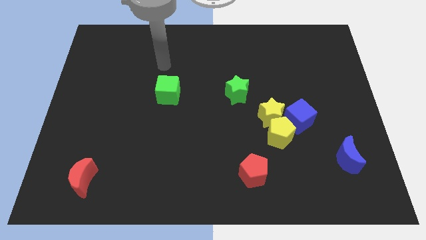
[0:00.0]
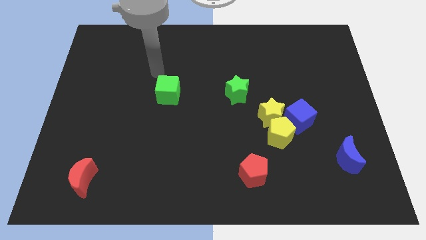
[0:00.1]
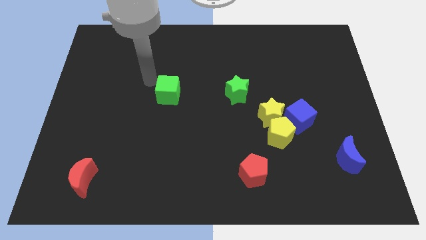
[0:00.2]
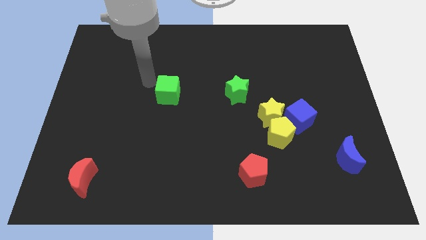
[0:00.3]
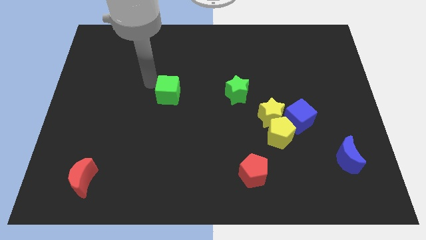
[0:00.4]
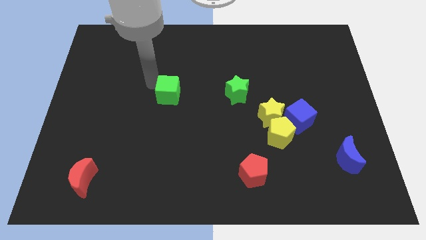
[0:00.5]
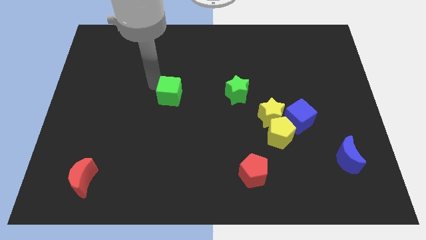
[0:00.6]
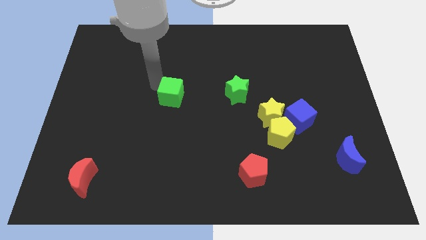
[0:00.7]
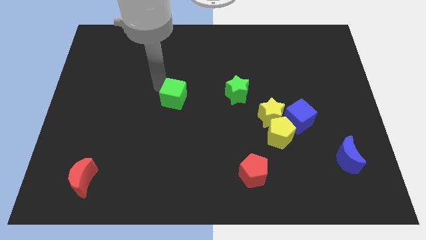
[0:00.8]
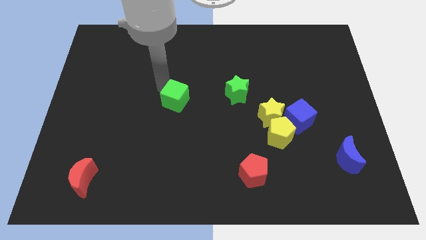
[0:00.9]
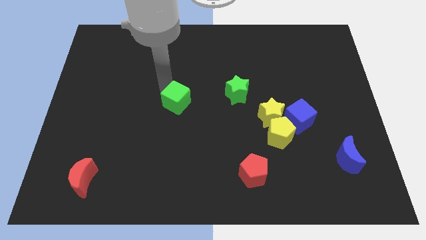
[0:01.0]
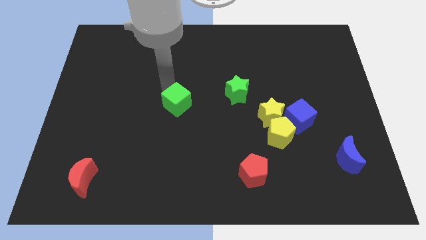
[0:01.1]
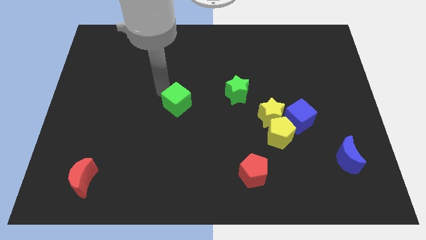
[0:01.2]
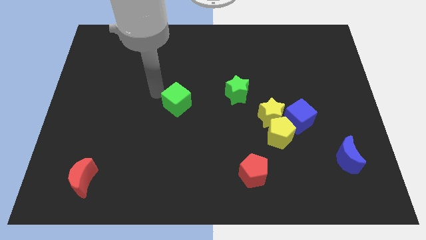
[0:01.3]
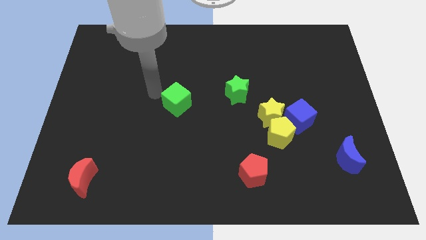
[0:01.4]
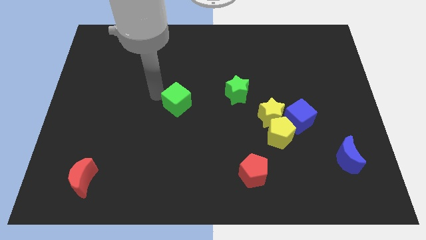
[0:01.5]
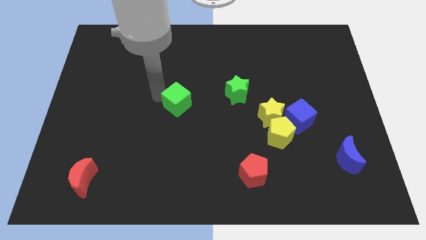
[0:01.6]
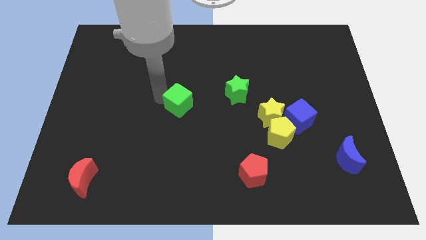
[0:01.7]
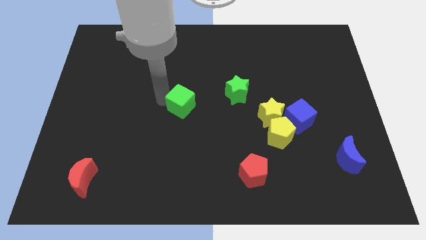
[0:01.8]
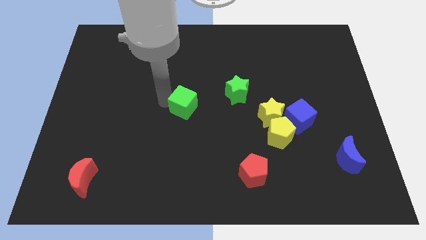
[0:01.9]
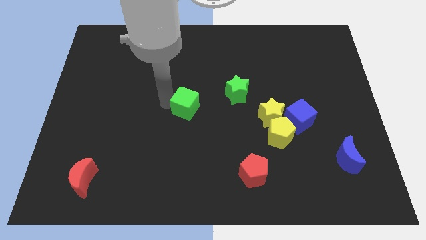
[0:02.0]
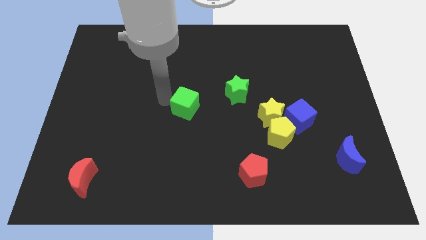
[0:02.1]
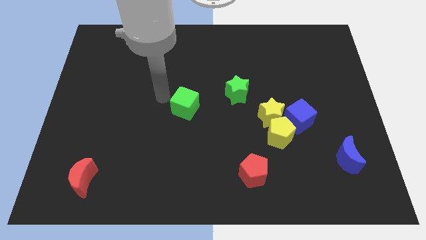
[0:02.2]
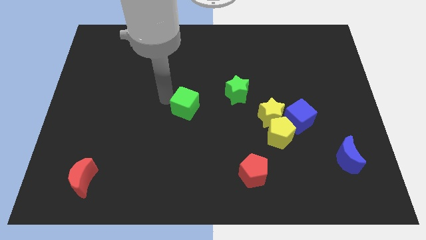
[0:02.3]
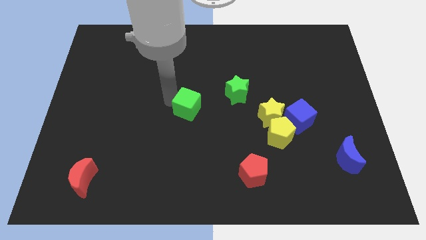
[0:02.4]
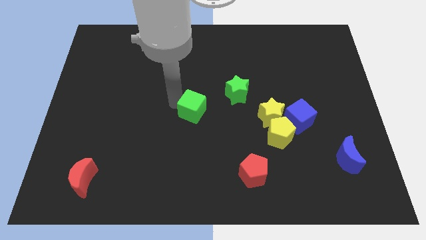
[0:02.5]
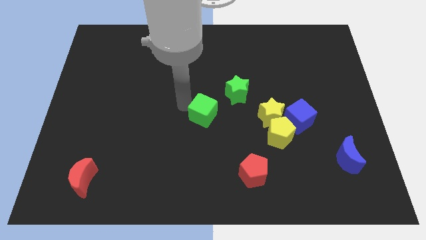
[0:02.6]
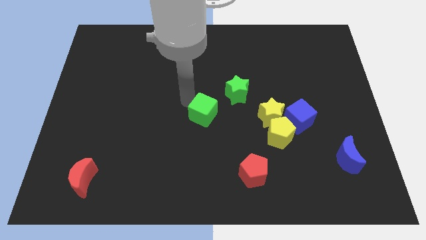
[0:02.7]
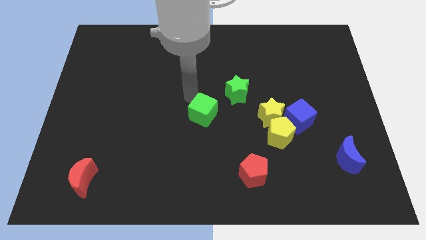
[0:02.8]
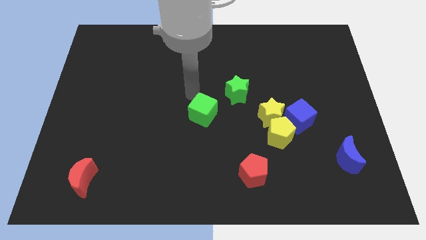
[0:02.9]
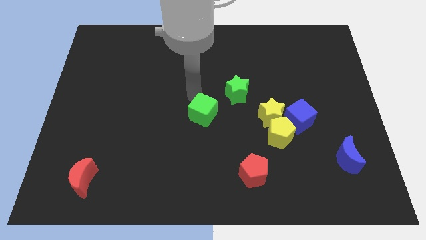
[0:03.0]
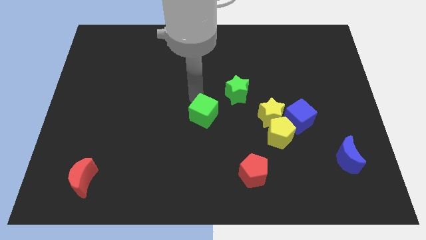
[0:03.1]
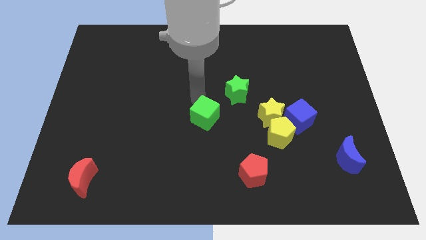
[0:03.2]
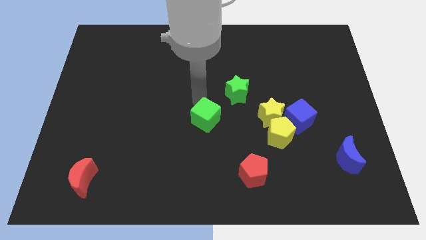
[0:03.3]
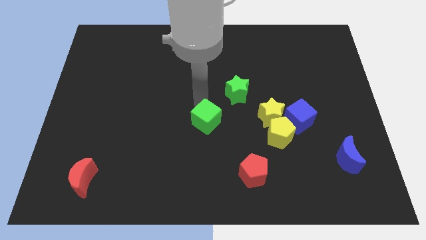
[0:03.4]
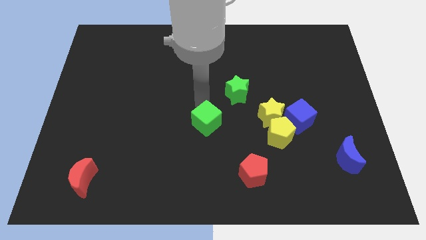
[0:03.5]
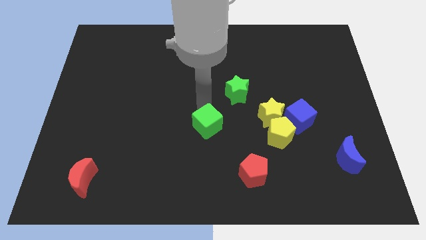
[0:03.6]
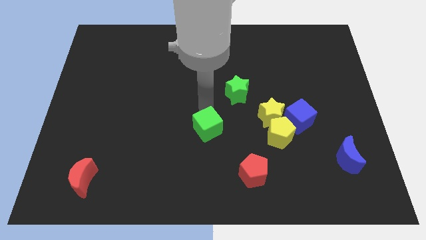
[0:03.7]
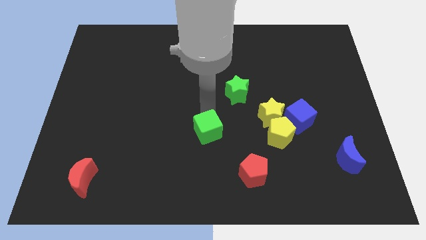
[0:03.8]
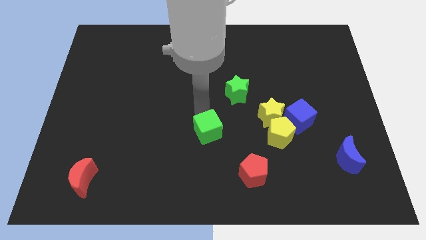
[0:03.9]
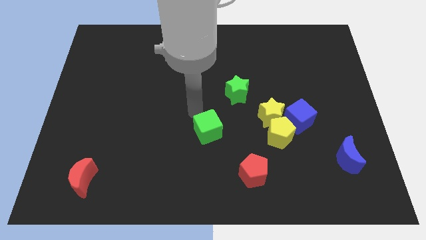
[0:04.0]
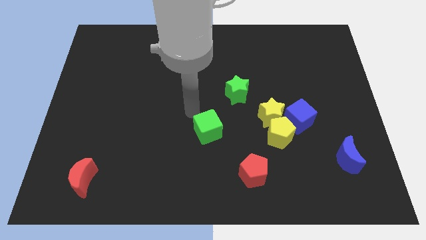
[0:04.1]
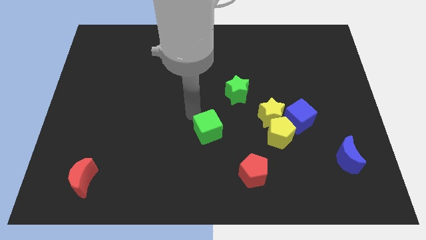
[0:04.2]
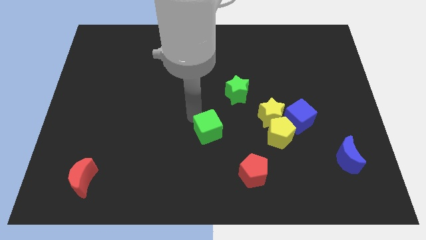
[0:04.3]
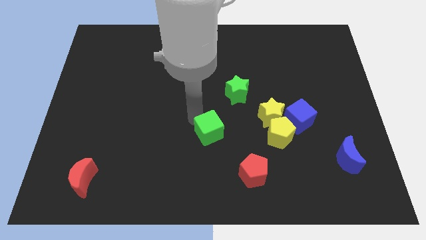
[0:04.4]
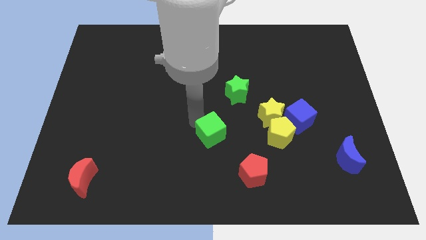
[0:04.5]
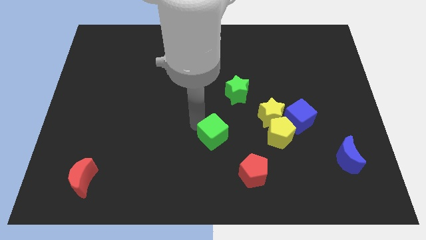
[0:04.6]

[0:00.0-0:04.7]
move the green cube to the top left side of the red pentagon

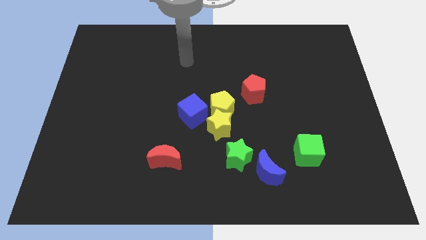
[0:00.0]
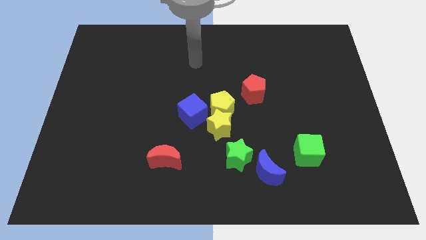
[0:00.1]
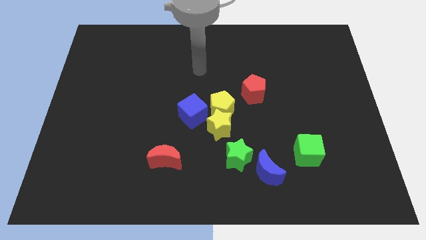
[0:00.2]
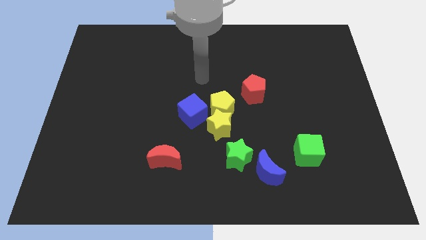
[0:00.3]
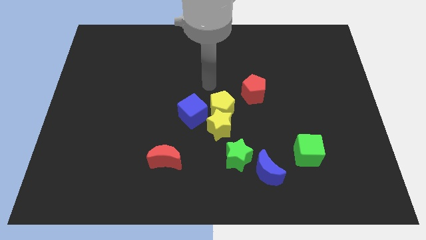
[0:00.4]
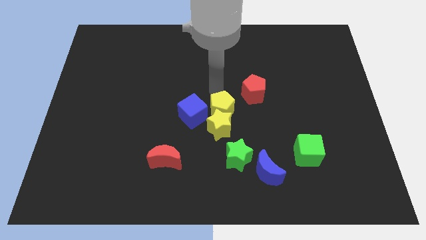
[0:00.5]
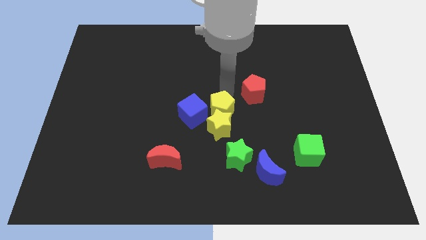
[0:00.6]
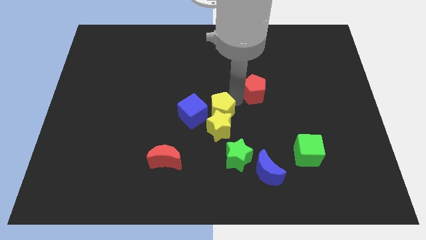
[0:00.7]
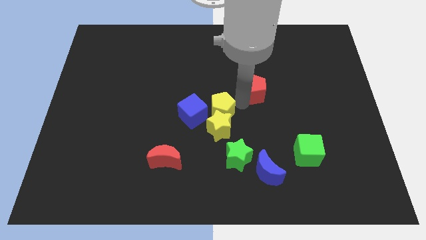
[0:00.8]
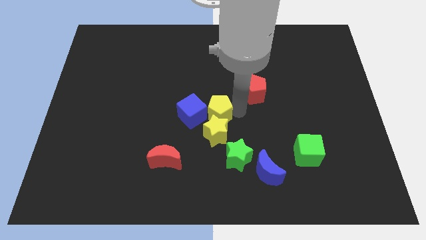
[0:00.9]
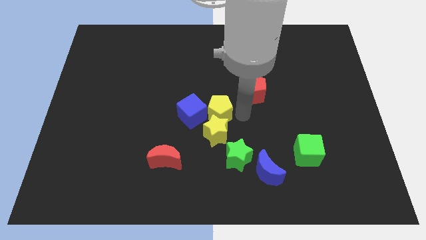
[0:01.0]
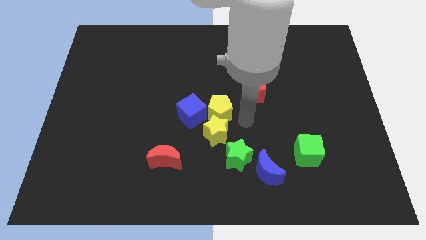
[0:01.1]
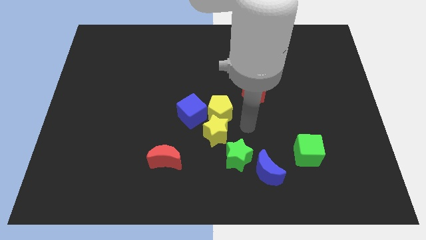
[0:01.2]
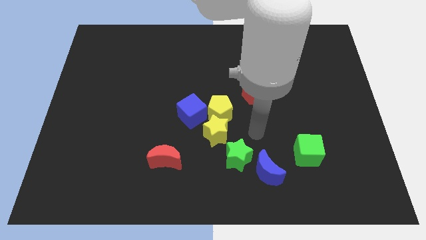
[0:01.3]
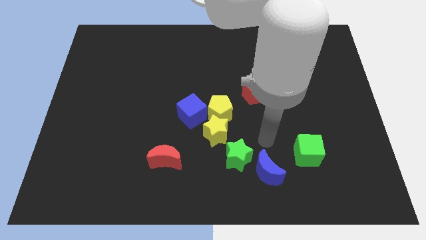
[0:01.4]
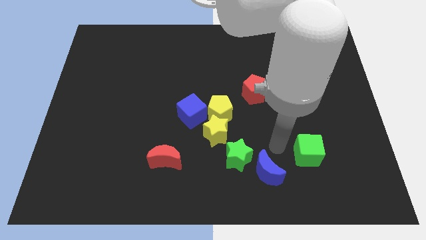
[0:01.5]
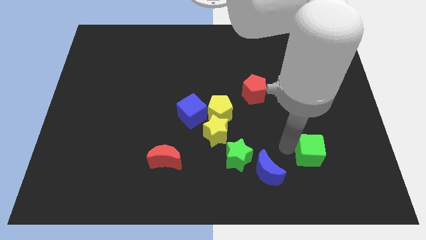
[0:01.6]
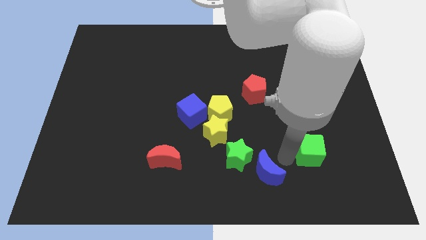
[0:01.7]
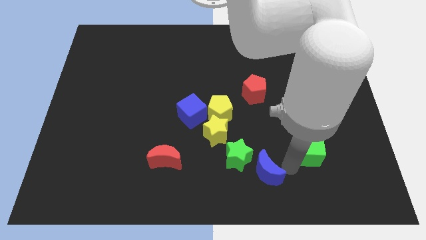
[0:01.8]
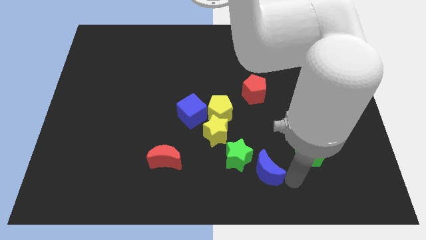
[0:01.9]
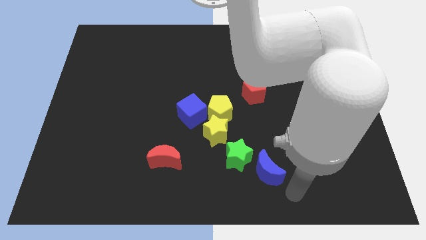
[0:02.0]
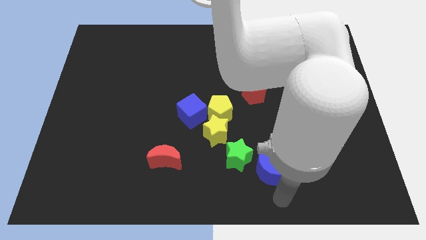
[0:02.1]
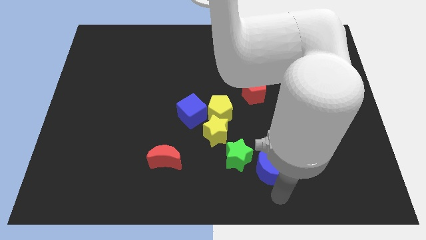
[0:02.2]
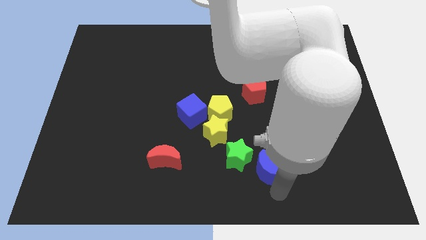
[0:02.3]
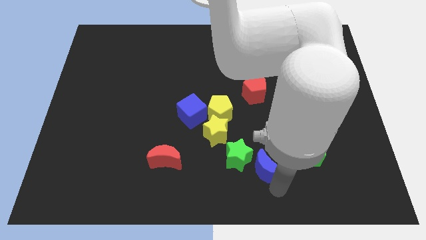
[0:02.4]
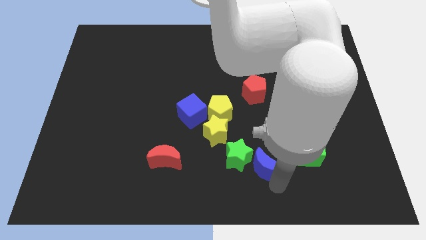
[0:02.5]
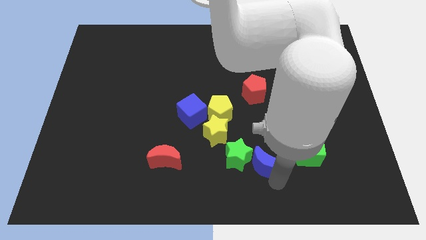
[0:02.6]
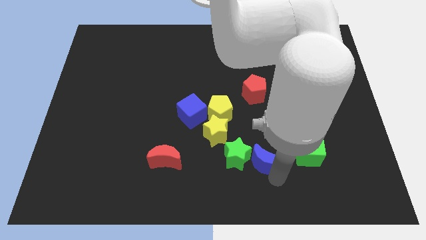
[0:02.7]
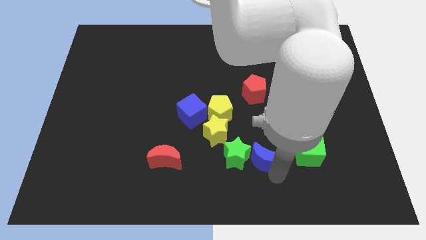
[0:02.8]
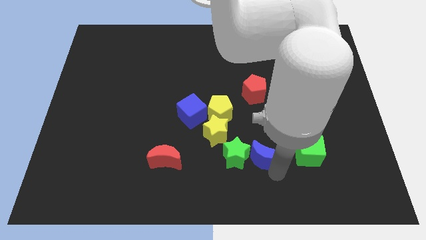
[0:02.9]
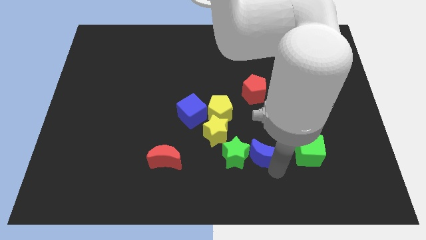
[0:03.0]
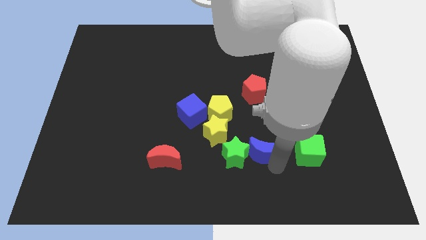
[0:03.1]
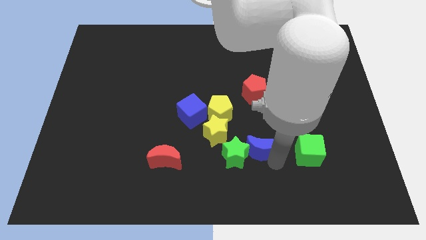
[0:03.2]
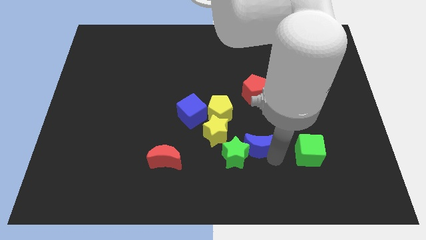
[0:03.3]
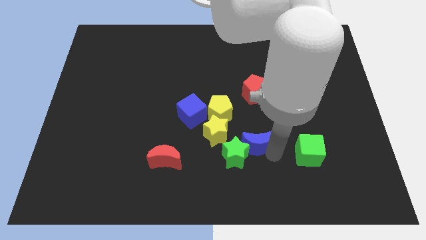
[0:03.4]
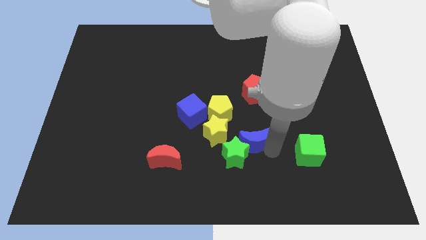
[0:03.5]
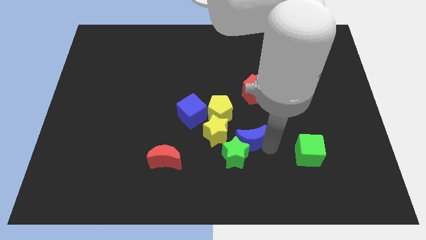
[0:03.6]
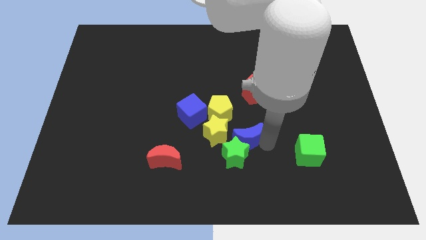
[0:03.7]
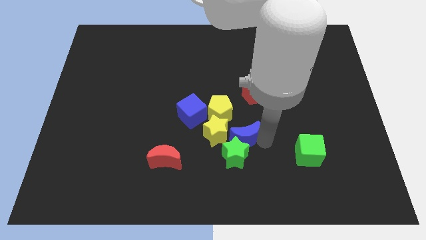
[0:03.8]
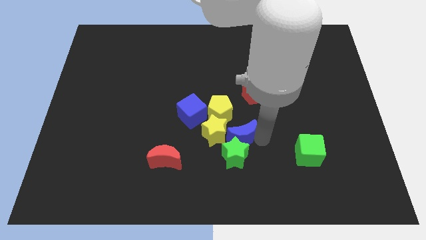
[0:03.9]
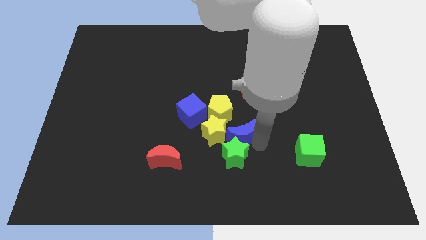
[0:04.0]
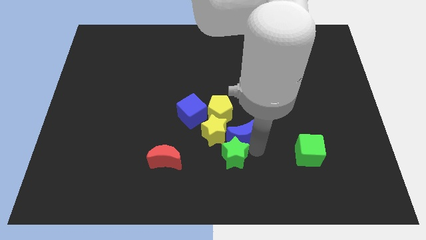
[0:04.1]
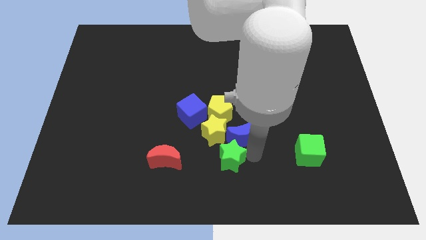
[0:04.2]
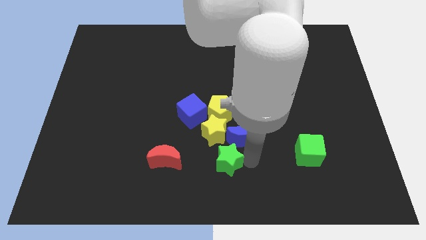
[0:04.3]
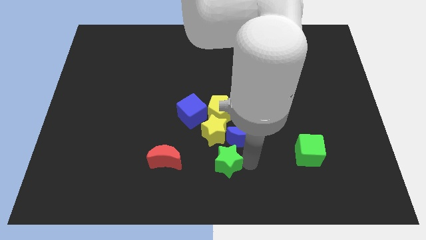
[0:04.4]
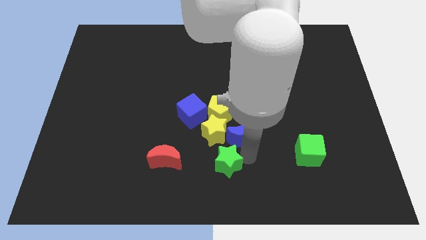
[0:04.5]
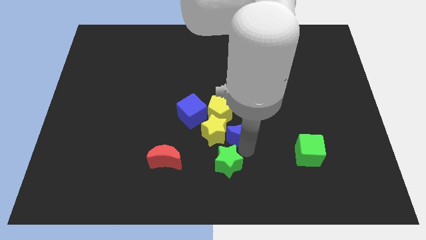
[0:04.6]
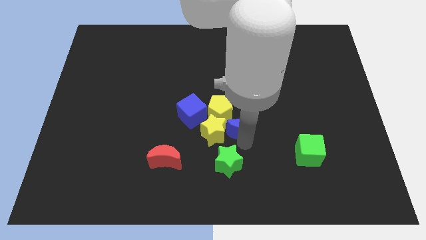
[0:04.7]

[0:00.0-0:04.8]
move the blue moon to the right side of the blue cube
